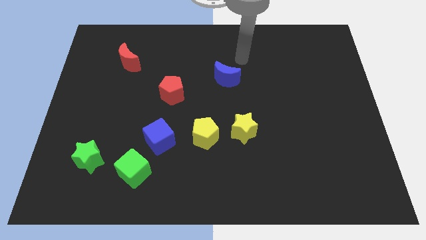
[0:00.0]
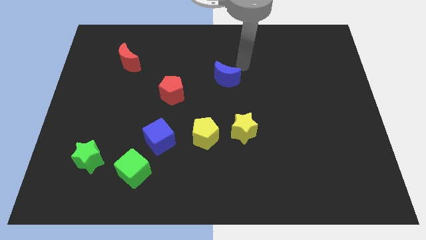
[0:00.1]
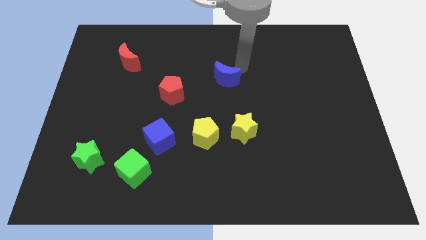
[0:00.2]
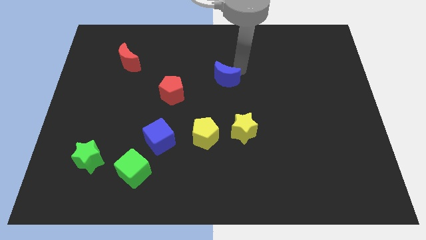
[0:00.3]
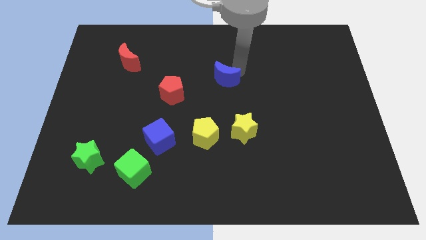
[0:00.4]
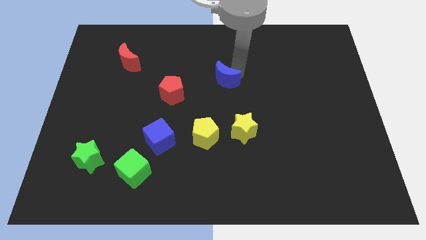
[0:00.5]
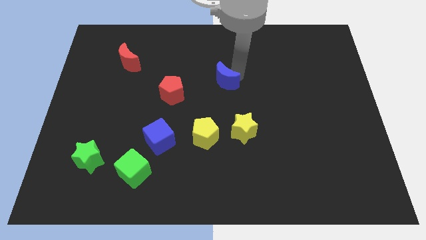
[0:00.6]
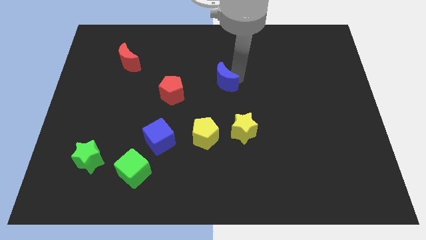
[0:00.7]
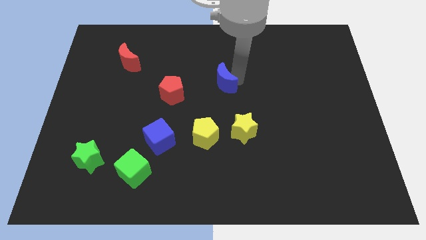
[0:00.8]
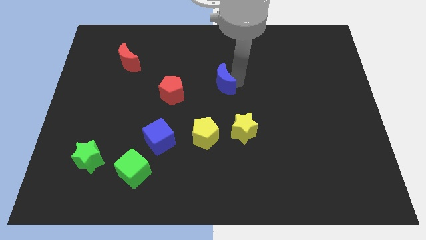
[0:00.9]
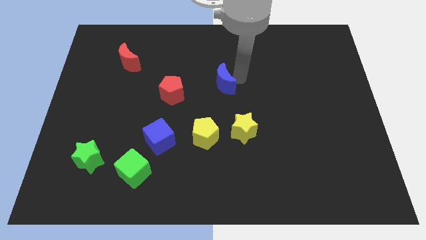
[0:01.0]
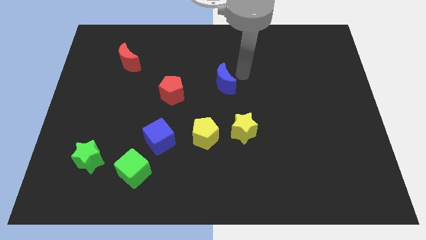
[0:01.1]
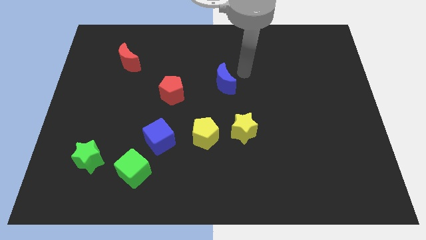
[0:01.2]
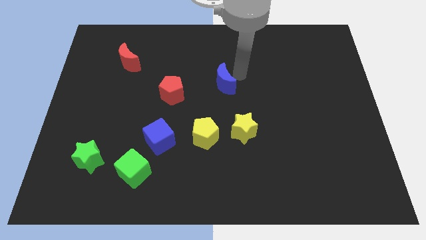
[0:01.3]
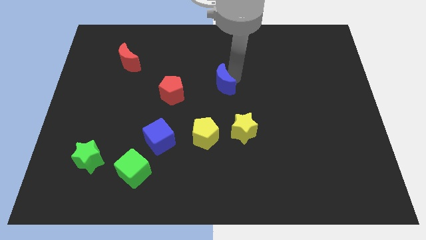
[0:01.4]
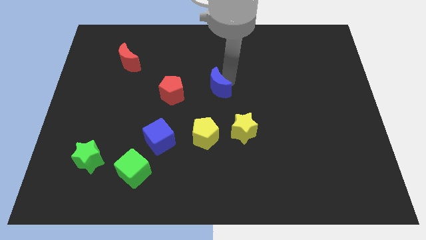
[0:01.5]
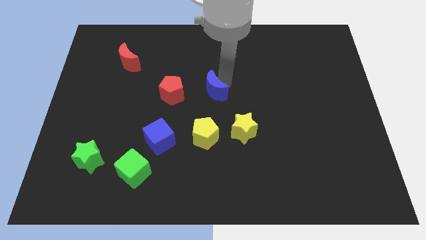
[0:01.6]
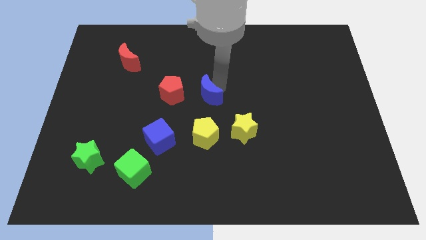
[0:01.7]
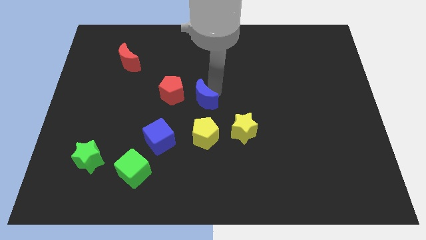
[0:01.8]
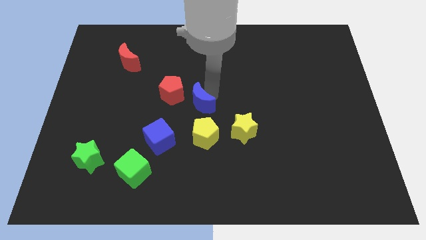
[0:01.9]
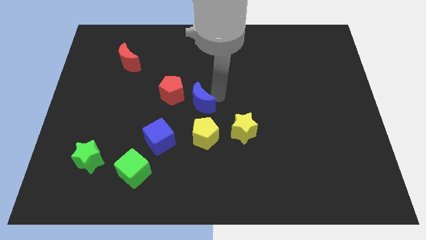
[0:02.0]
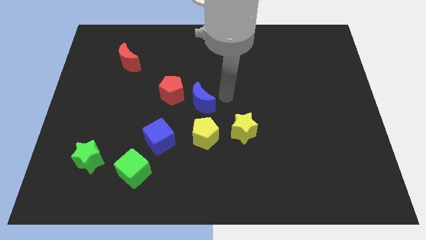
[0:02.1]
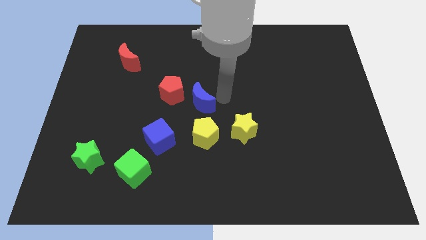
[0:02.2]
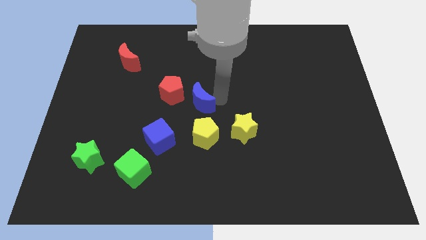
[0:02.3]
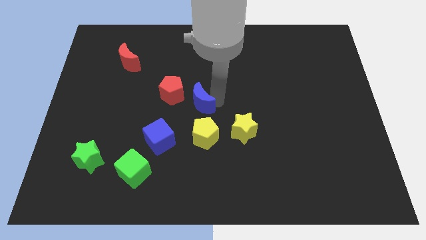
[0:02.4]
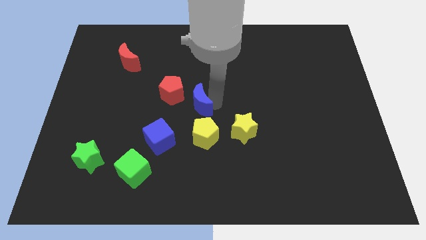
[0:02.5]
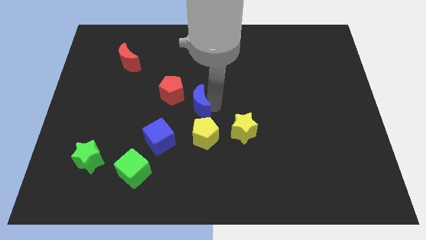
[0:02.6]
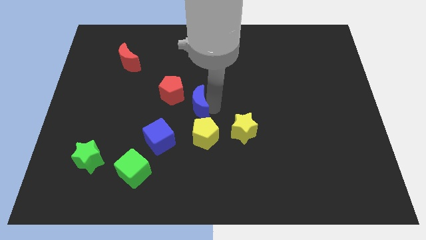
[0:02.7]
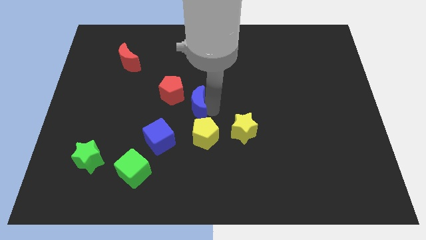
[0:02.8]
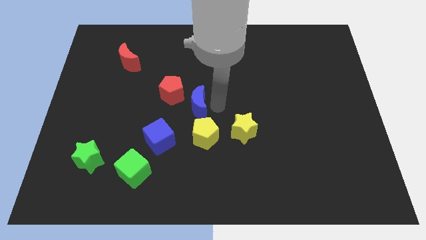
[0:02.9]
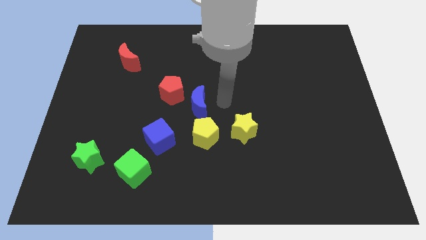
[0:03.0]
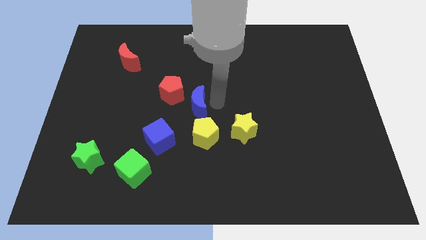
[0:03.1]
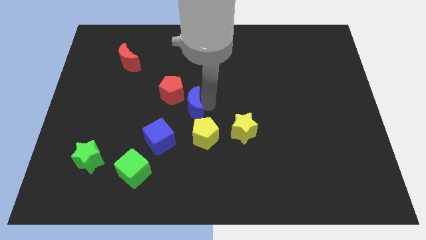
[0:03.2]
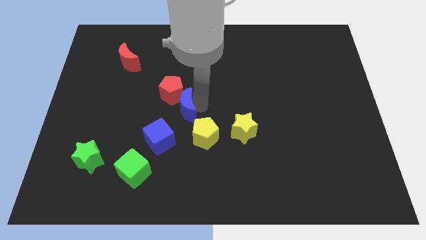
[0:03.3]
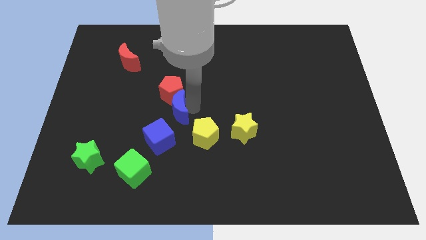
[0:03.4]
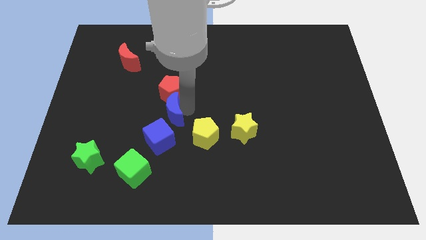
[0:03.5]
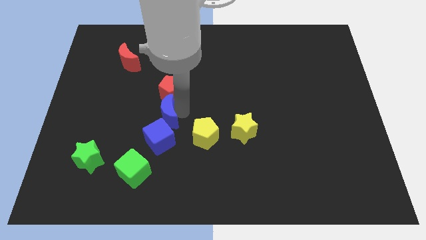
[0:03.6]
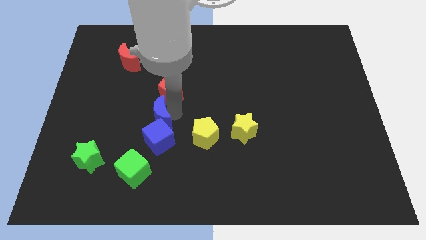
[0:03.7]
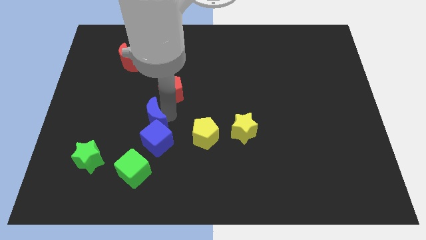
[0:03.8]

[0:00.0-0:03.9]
move the blue moon downwards and then to the left

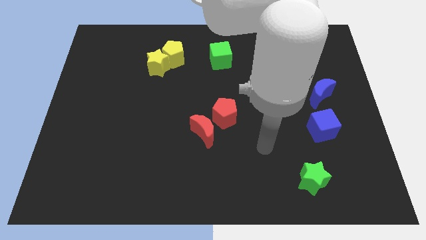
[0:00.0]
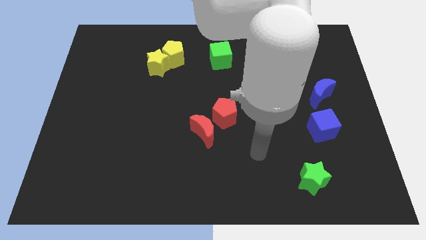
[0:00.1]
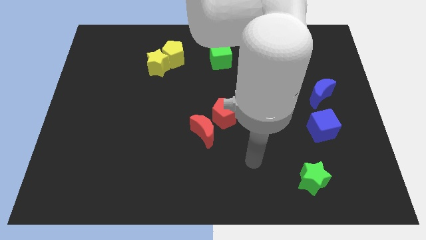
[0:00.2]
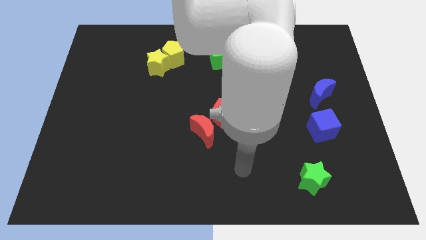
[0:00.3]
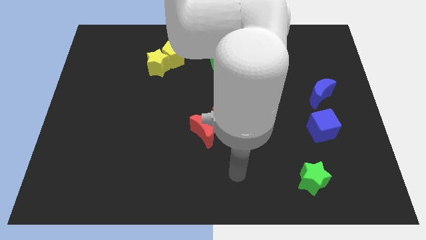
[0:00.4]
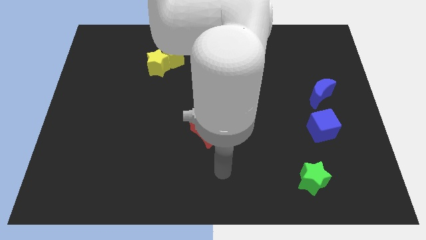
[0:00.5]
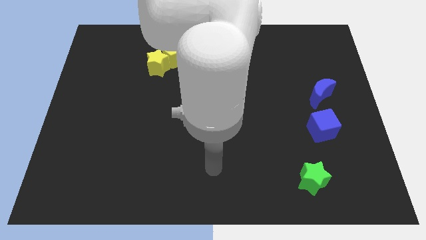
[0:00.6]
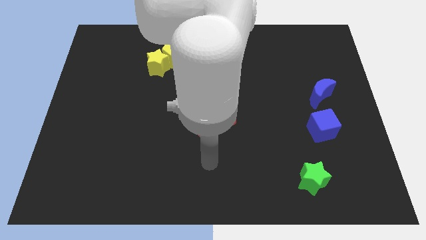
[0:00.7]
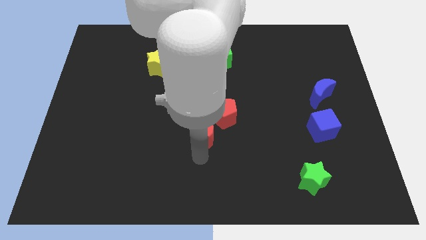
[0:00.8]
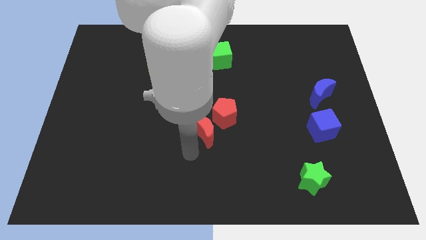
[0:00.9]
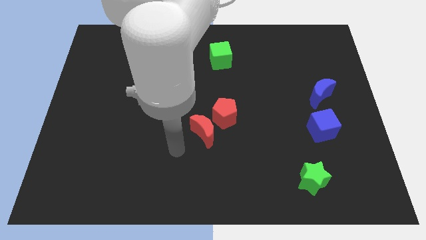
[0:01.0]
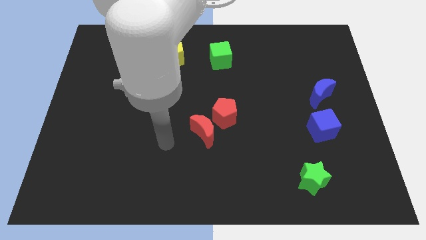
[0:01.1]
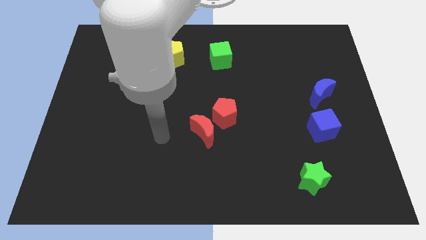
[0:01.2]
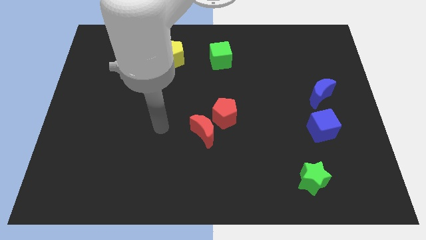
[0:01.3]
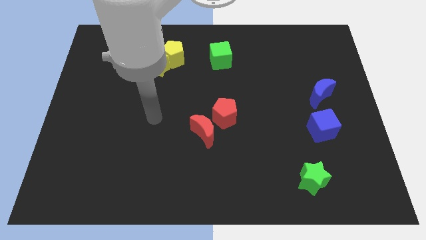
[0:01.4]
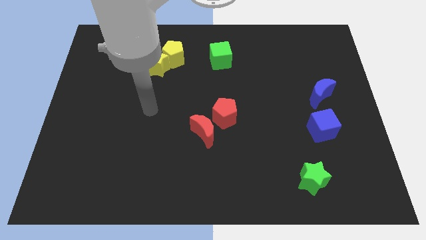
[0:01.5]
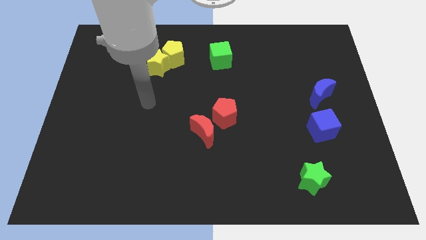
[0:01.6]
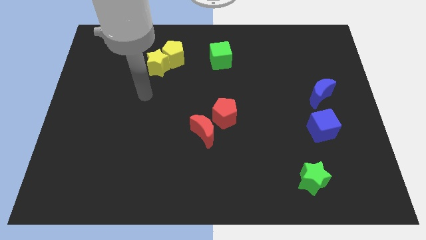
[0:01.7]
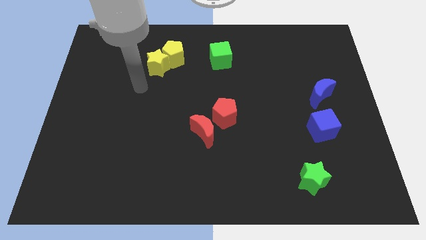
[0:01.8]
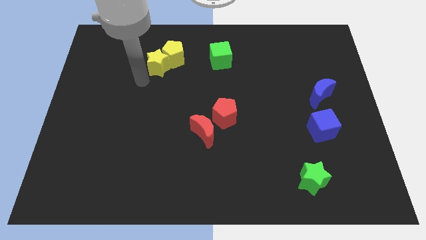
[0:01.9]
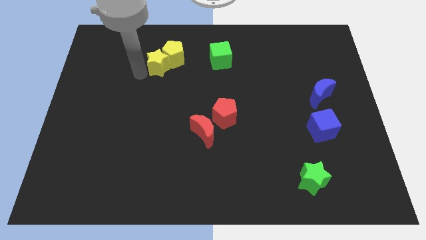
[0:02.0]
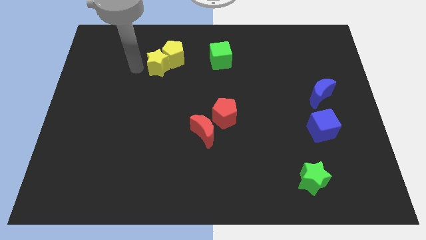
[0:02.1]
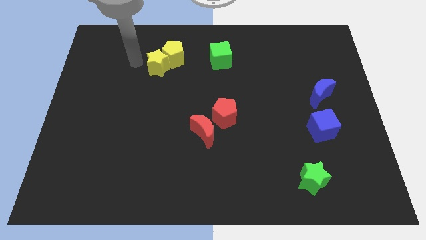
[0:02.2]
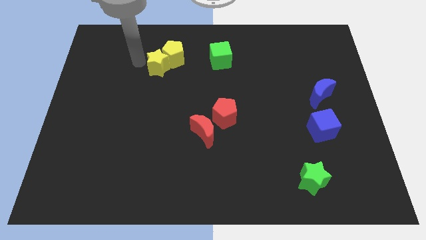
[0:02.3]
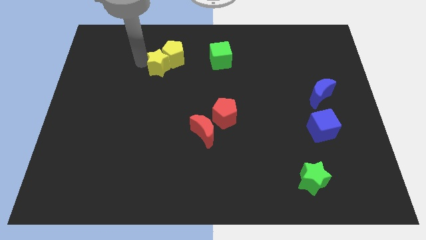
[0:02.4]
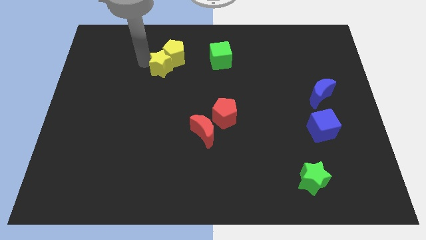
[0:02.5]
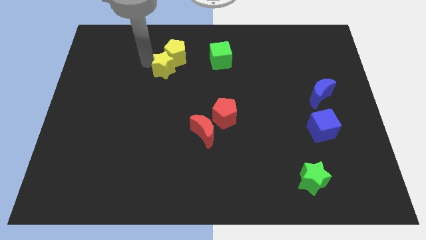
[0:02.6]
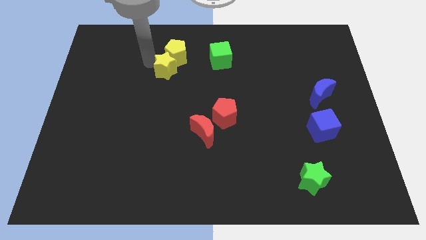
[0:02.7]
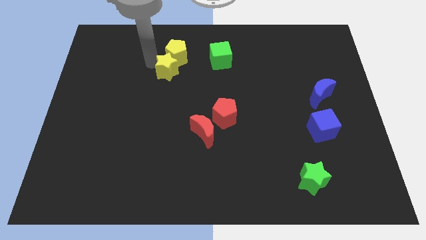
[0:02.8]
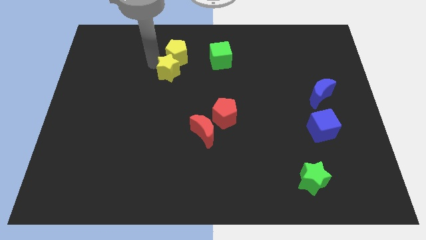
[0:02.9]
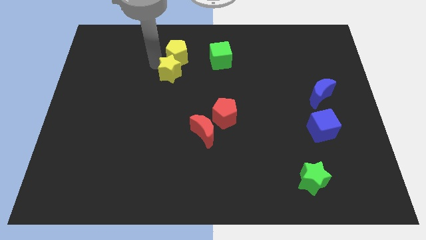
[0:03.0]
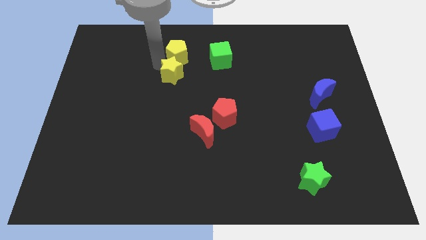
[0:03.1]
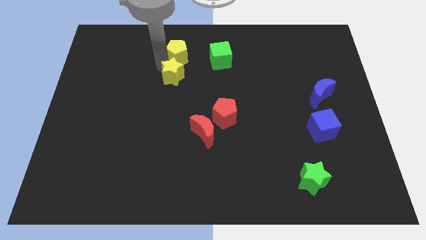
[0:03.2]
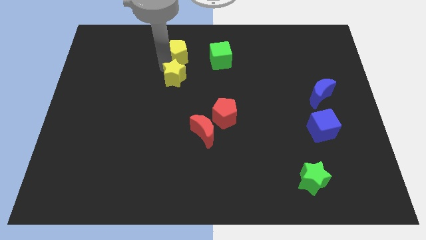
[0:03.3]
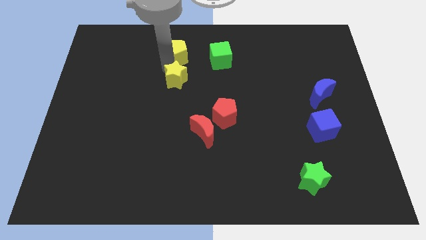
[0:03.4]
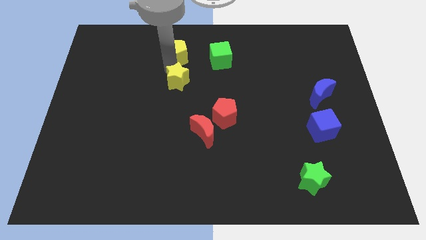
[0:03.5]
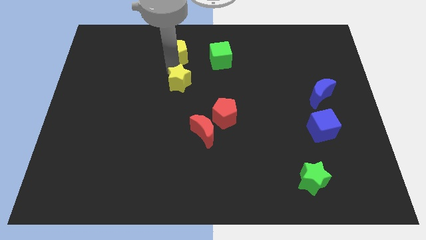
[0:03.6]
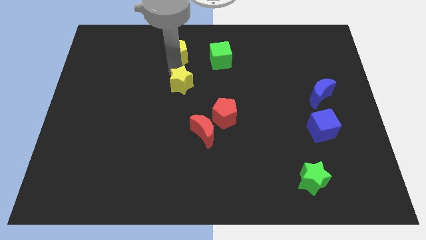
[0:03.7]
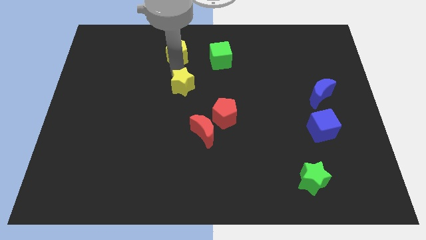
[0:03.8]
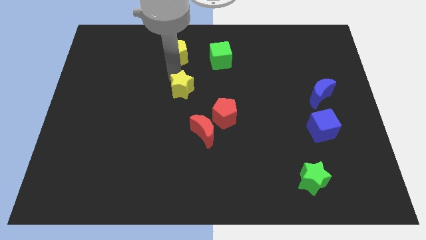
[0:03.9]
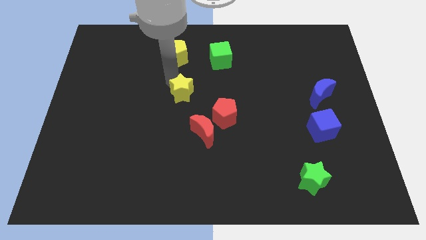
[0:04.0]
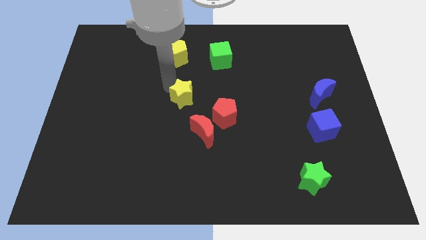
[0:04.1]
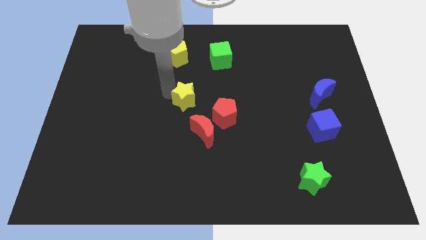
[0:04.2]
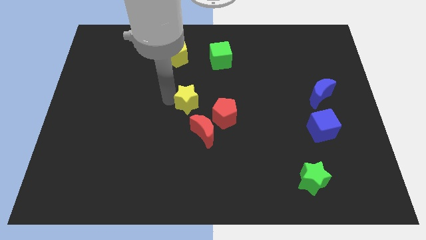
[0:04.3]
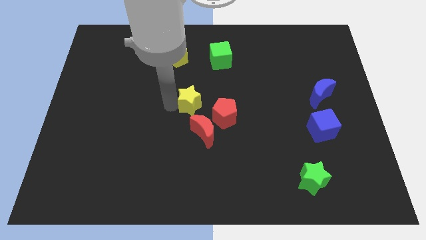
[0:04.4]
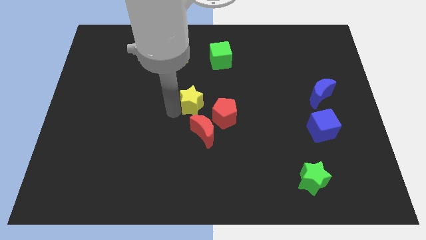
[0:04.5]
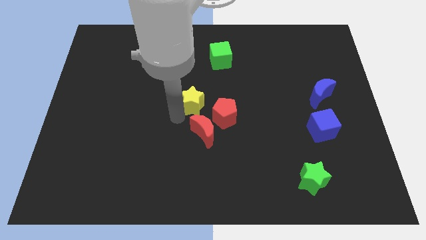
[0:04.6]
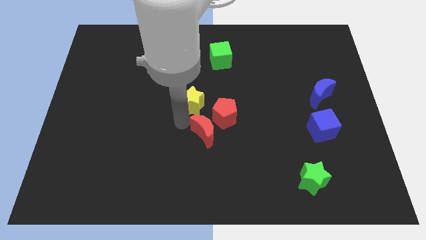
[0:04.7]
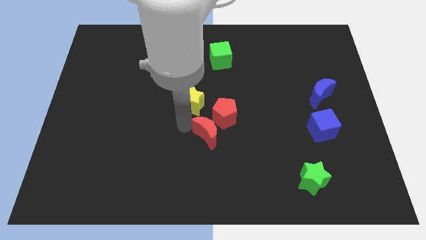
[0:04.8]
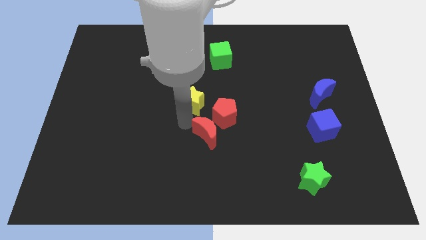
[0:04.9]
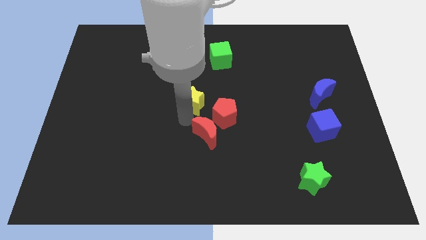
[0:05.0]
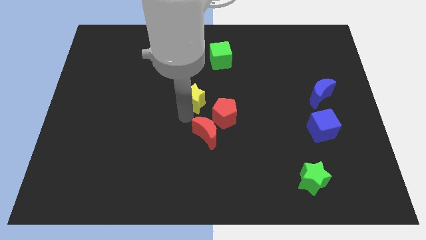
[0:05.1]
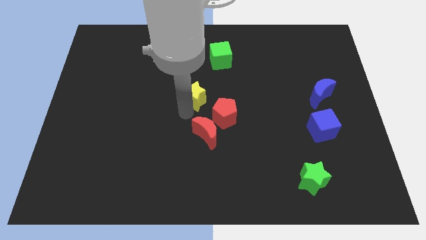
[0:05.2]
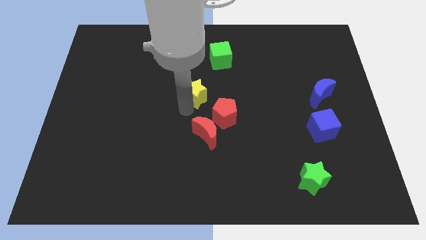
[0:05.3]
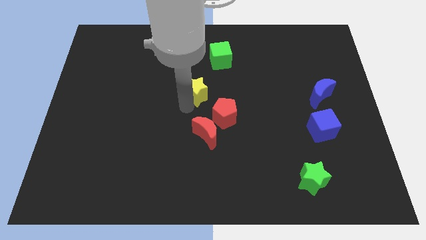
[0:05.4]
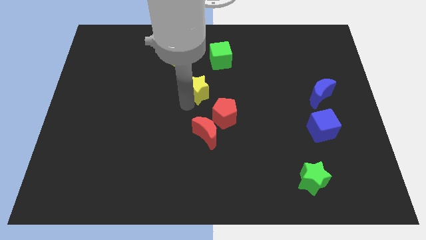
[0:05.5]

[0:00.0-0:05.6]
push the yellow star somewhat right
